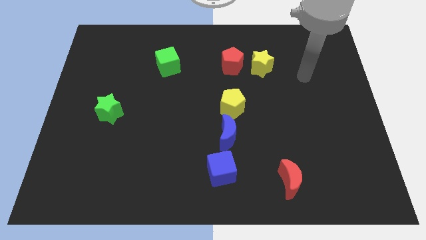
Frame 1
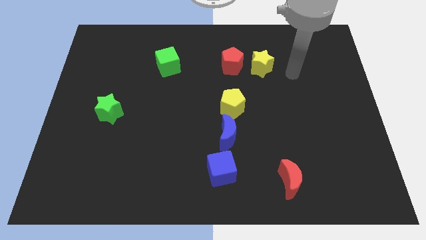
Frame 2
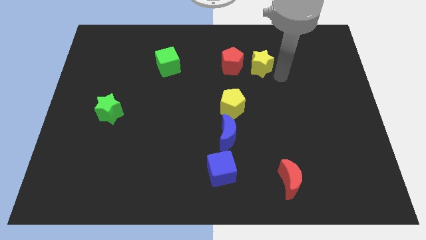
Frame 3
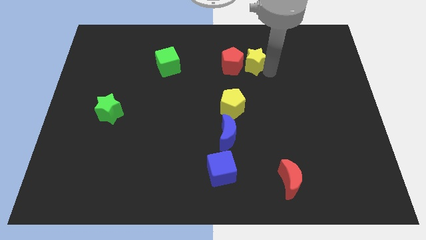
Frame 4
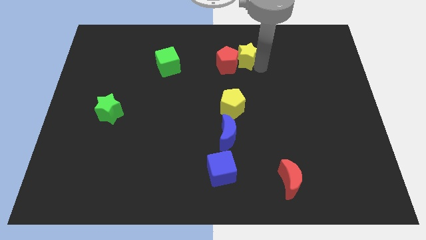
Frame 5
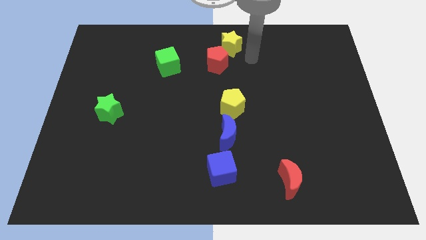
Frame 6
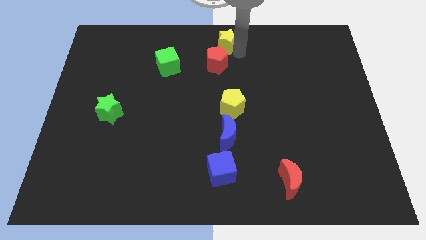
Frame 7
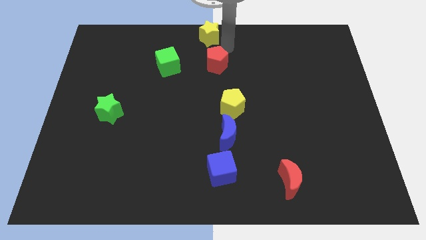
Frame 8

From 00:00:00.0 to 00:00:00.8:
separate the red pentagon from the yellow star

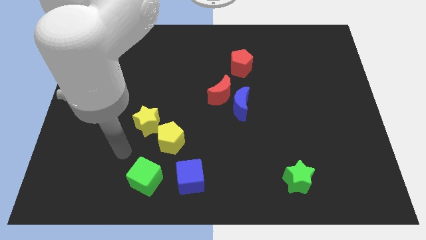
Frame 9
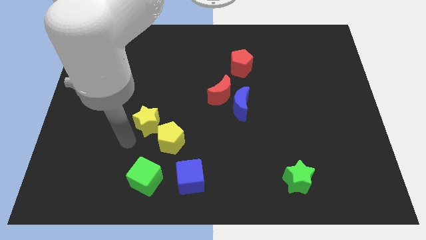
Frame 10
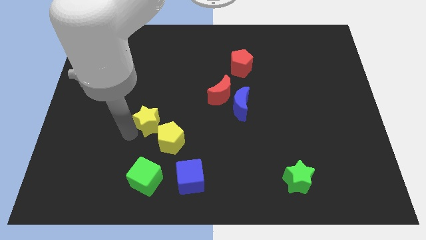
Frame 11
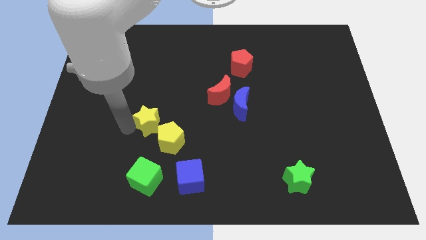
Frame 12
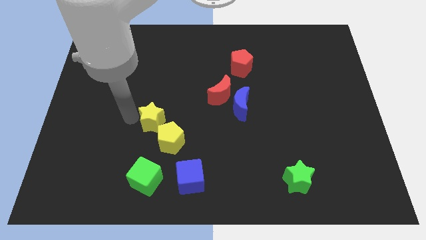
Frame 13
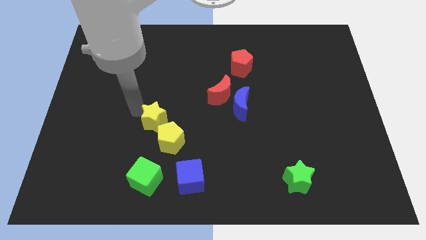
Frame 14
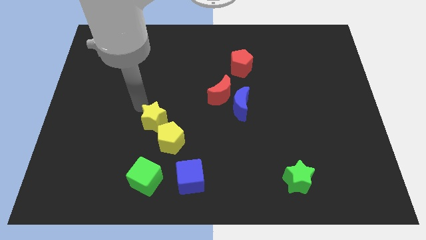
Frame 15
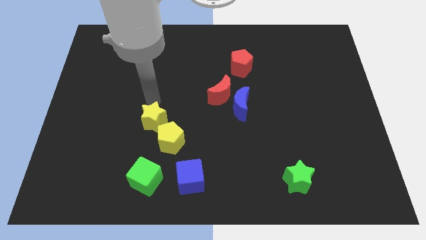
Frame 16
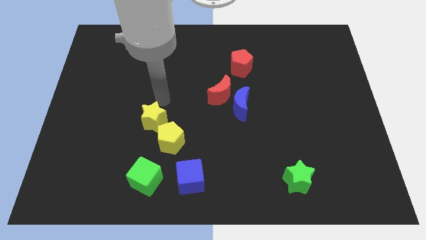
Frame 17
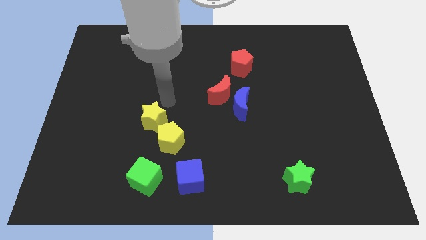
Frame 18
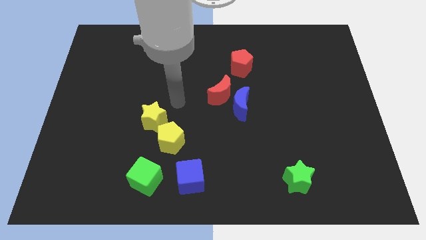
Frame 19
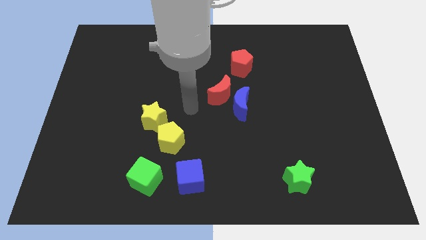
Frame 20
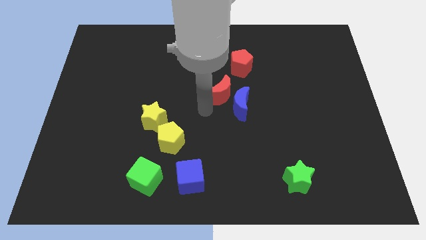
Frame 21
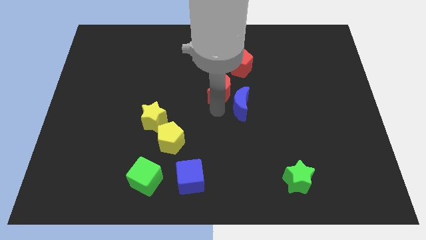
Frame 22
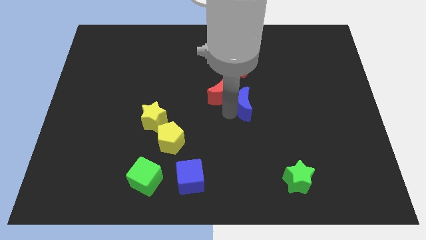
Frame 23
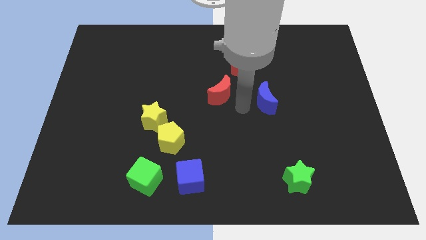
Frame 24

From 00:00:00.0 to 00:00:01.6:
move the red moon away from the blue moon

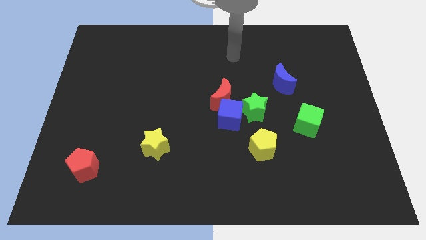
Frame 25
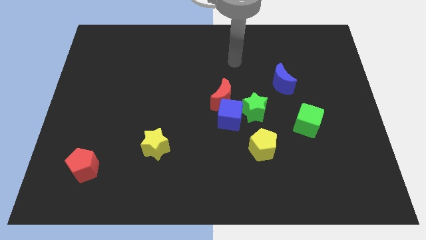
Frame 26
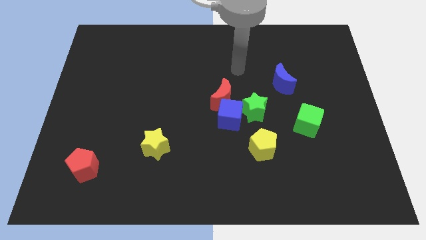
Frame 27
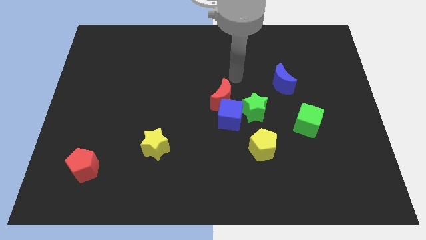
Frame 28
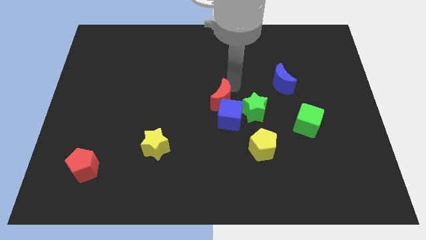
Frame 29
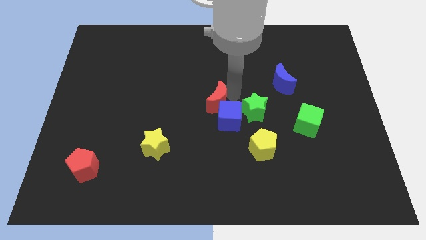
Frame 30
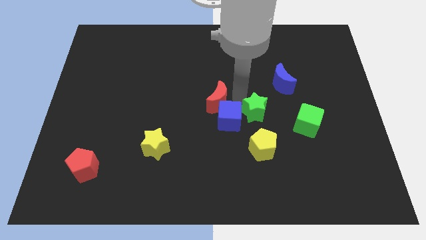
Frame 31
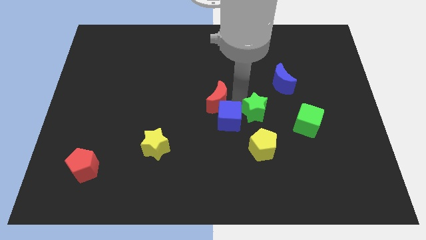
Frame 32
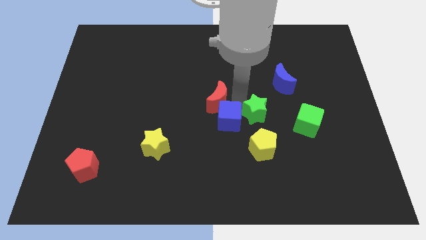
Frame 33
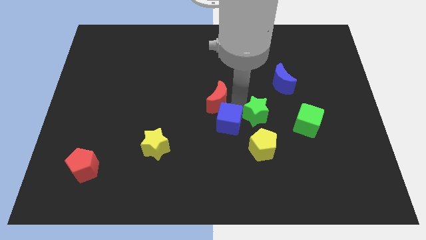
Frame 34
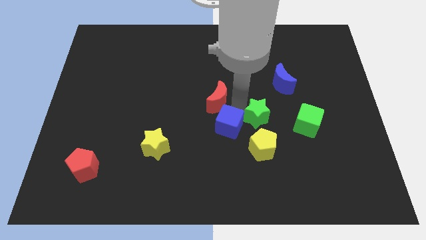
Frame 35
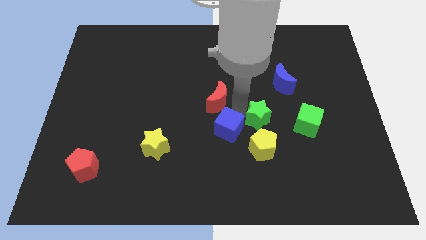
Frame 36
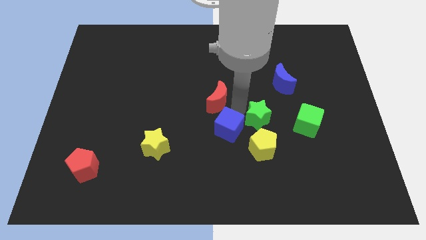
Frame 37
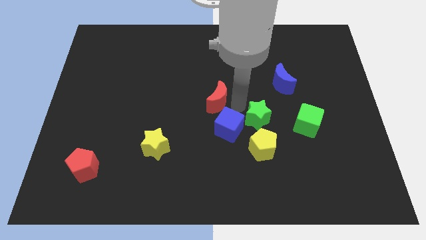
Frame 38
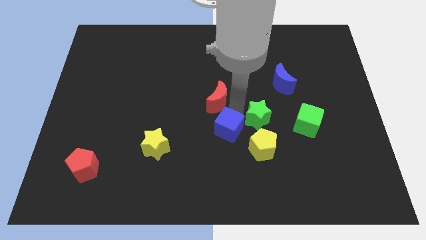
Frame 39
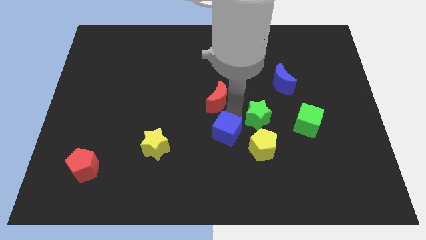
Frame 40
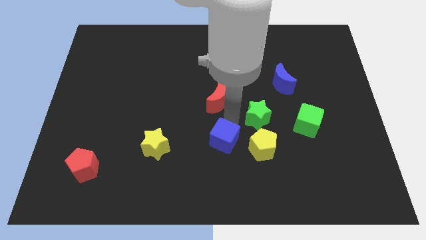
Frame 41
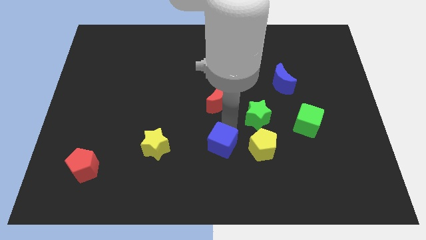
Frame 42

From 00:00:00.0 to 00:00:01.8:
pull the blue cube apart from the red moon and green star

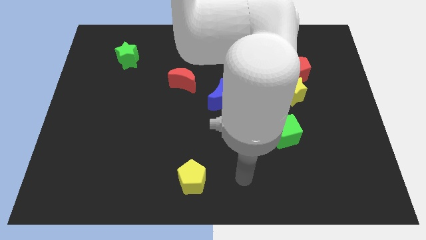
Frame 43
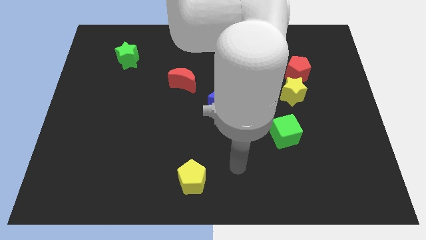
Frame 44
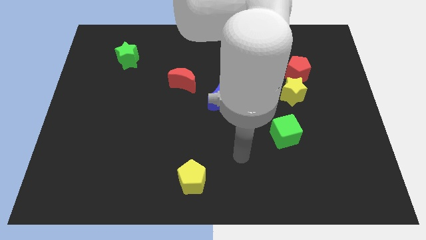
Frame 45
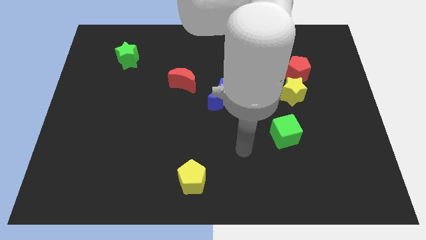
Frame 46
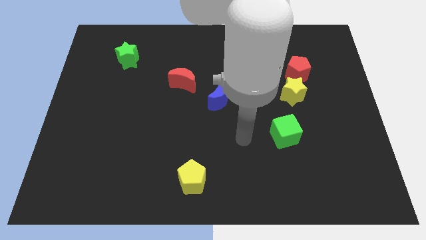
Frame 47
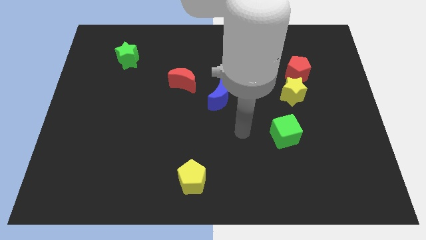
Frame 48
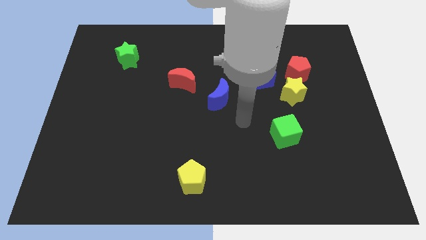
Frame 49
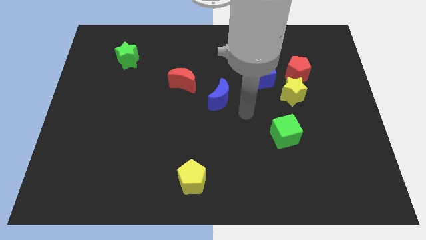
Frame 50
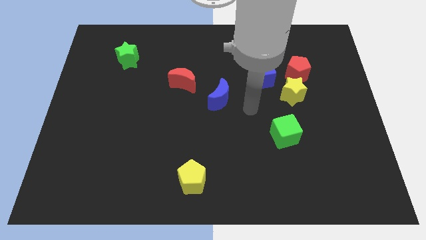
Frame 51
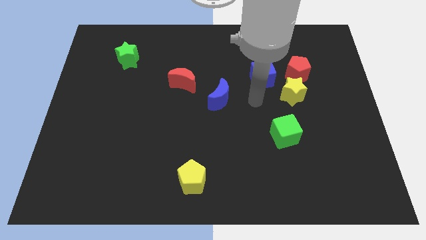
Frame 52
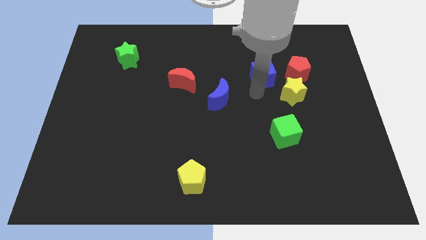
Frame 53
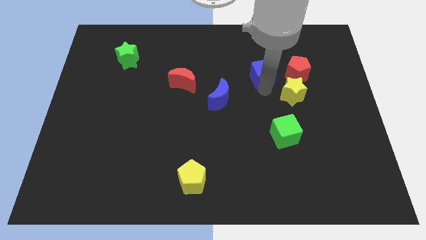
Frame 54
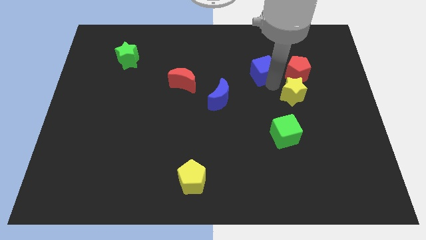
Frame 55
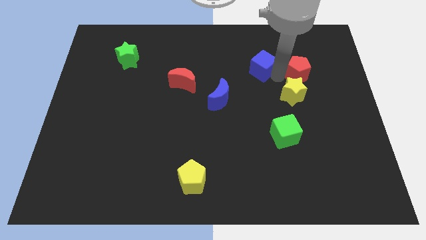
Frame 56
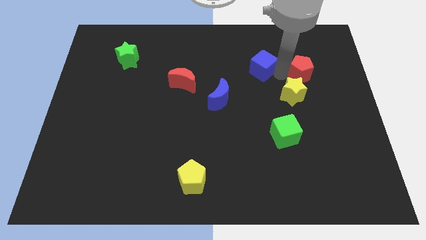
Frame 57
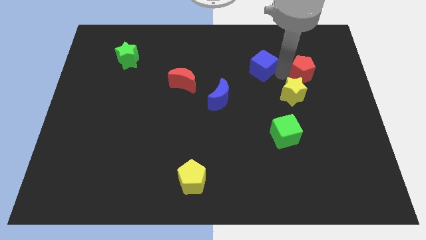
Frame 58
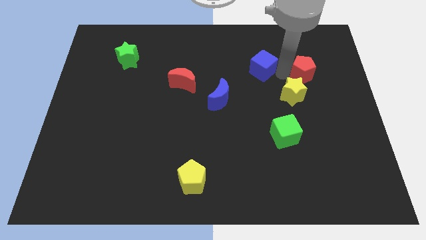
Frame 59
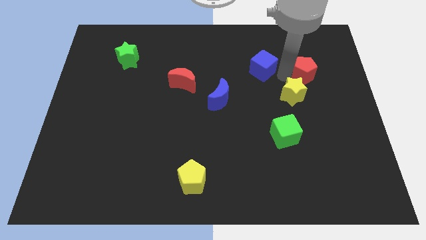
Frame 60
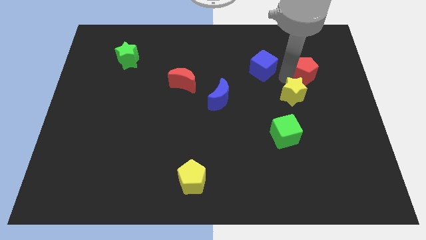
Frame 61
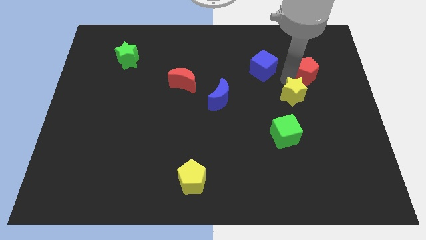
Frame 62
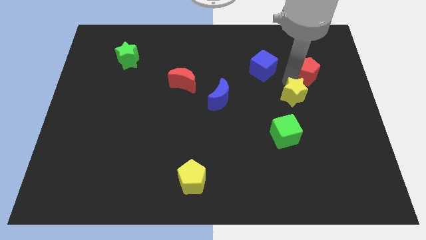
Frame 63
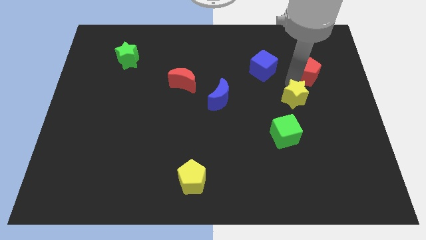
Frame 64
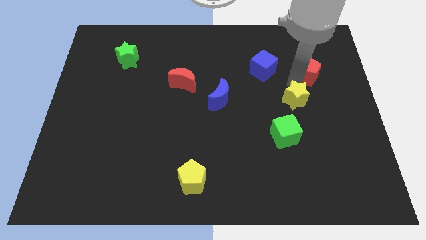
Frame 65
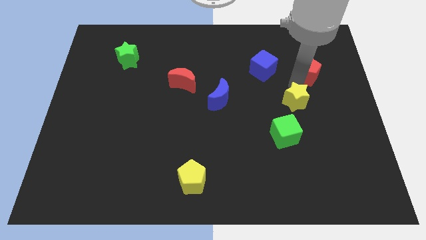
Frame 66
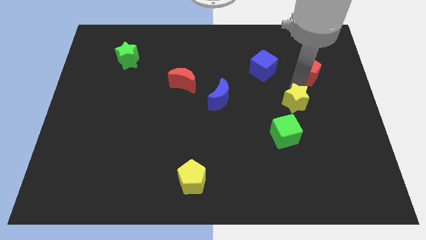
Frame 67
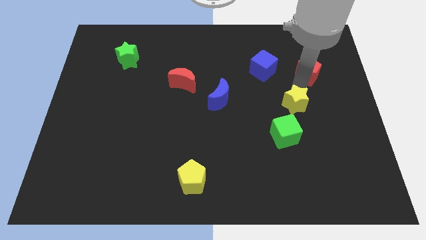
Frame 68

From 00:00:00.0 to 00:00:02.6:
pull the yellow star apart from the red pentagon and blue cube

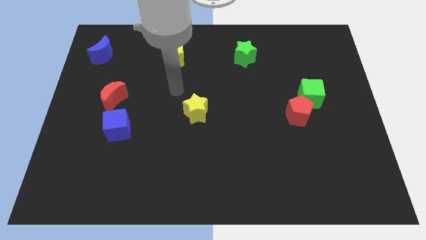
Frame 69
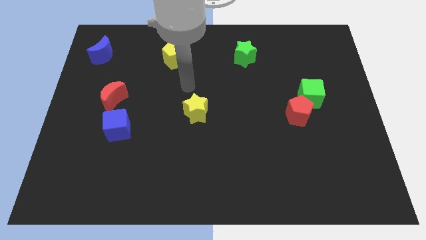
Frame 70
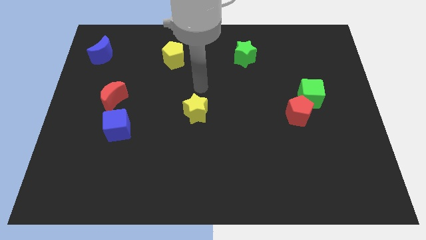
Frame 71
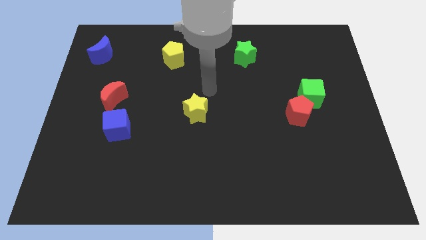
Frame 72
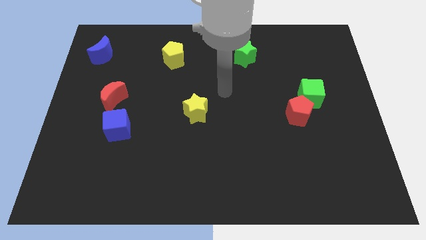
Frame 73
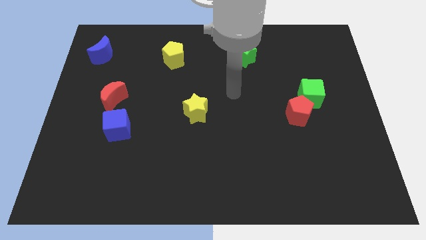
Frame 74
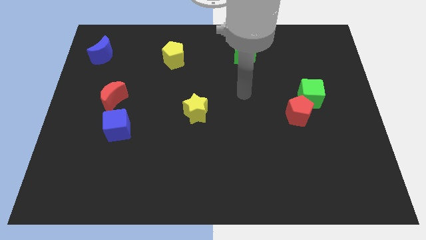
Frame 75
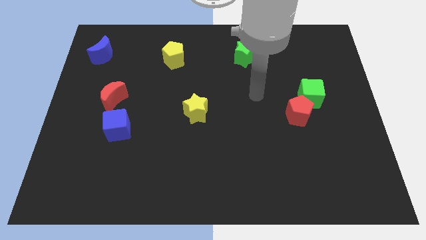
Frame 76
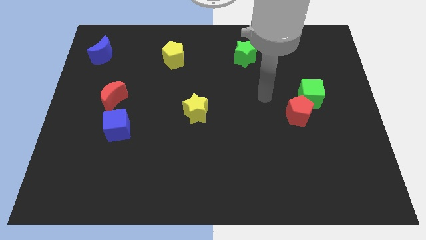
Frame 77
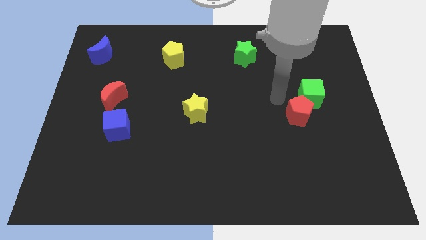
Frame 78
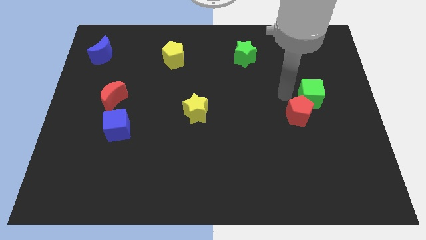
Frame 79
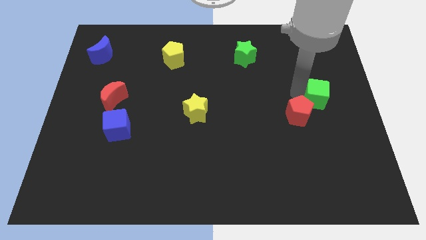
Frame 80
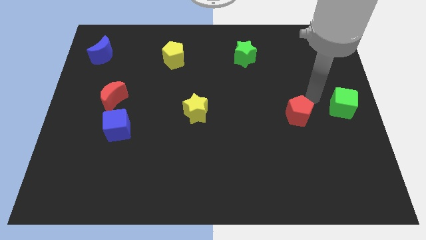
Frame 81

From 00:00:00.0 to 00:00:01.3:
separate the red pentagon from the green cube

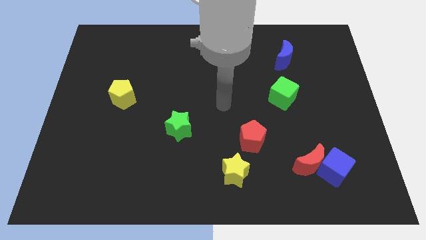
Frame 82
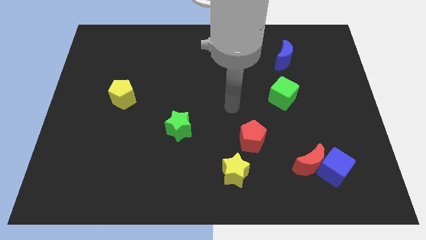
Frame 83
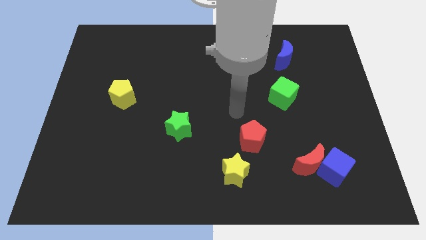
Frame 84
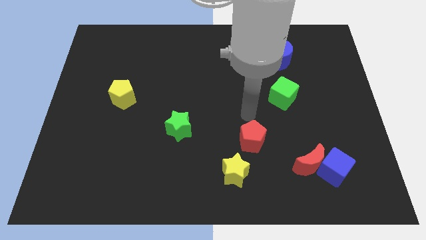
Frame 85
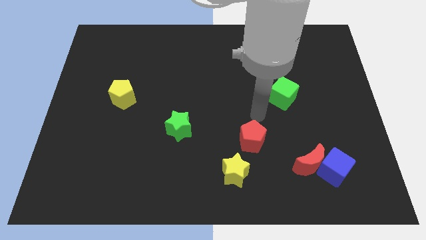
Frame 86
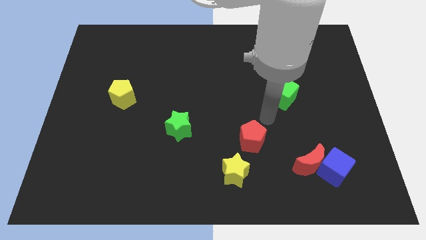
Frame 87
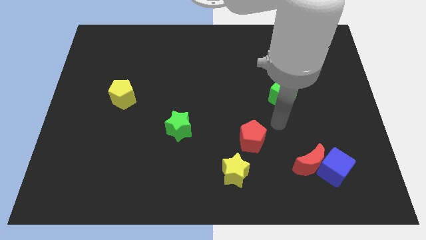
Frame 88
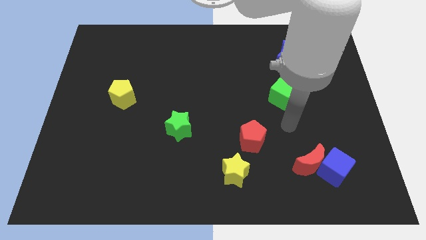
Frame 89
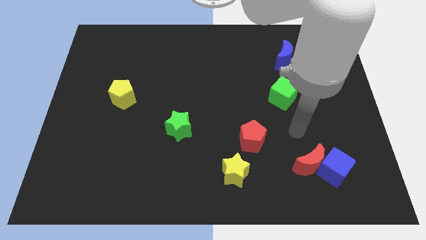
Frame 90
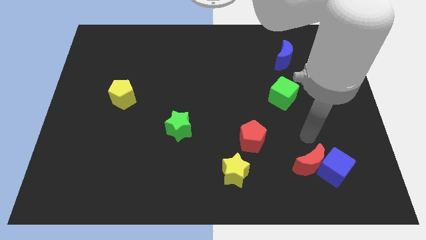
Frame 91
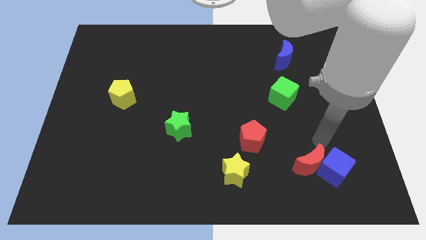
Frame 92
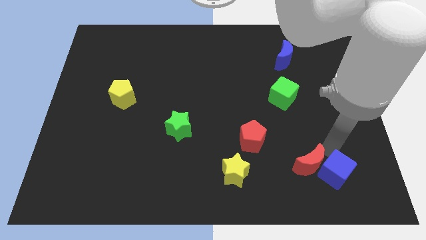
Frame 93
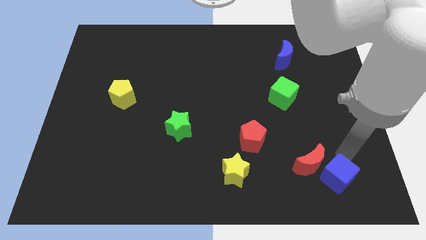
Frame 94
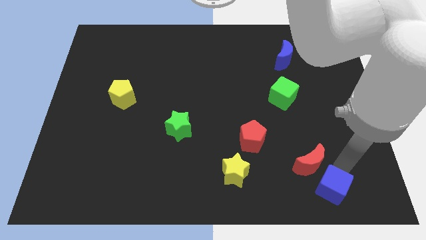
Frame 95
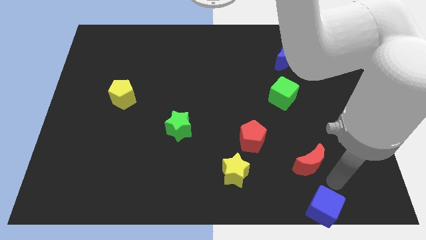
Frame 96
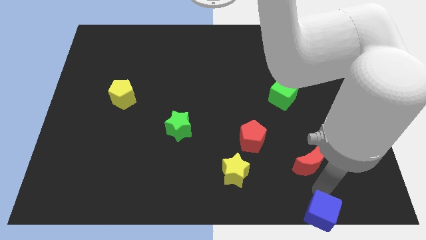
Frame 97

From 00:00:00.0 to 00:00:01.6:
move the red moon away from the blue cube
